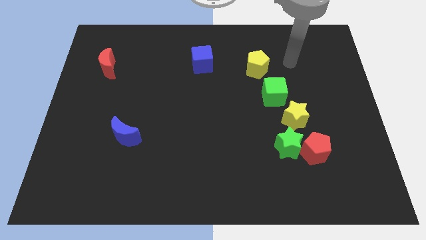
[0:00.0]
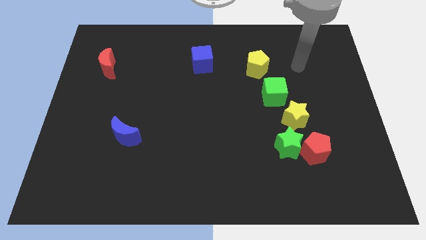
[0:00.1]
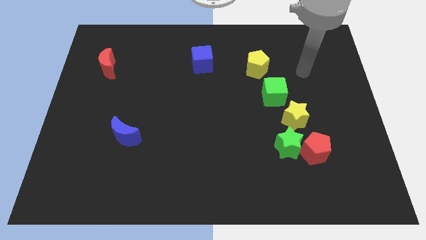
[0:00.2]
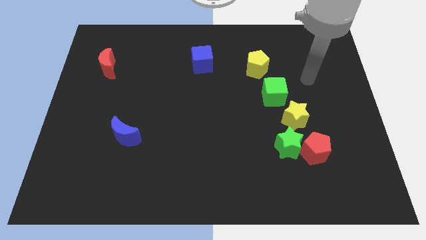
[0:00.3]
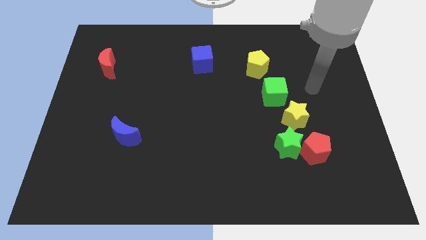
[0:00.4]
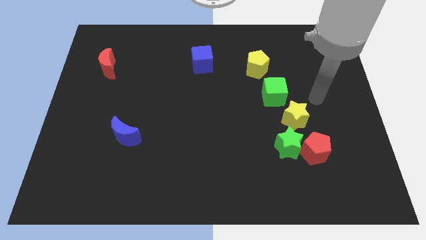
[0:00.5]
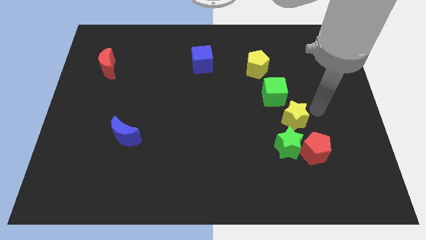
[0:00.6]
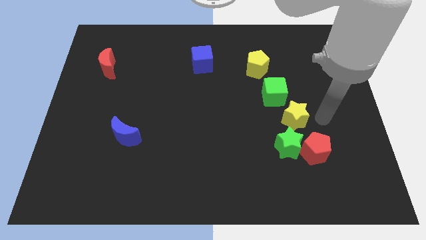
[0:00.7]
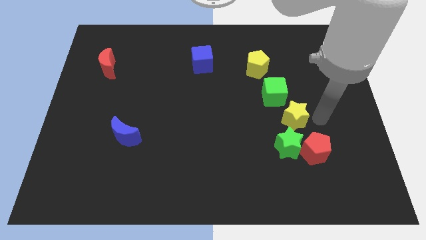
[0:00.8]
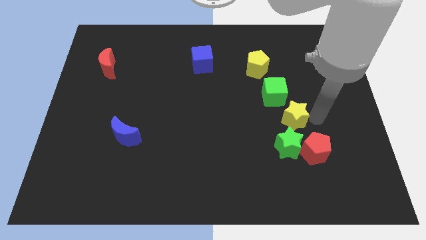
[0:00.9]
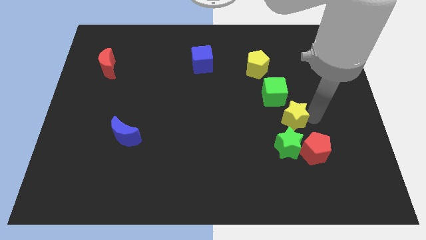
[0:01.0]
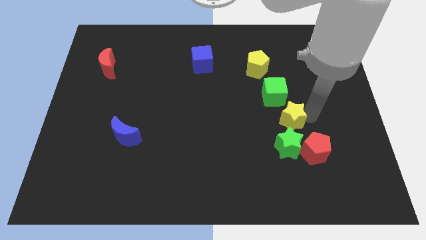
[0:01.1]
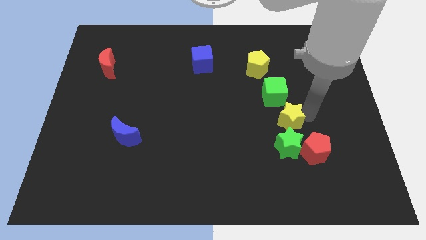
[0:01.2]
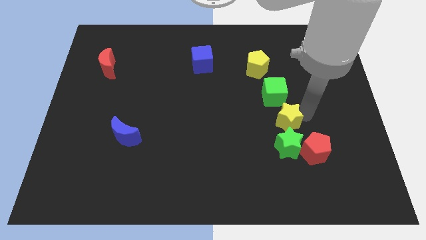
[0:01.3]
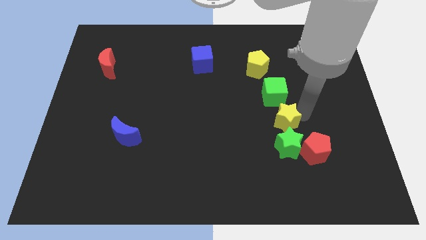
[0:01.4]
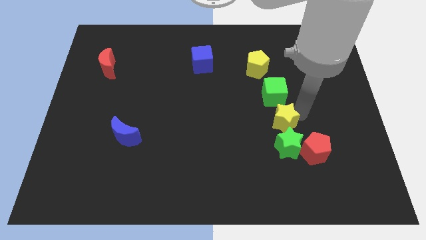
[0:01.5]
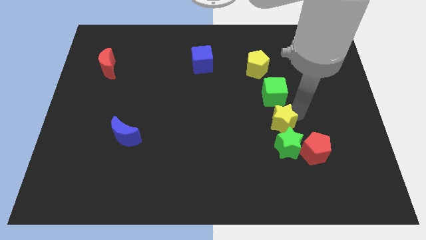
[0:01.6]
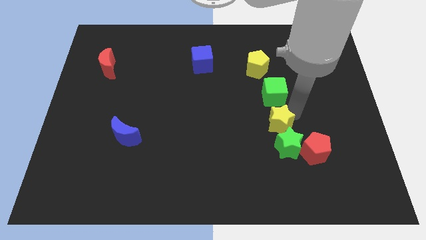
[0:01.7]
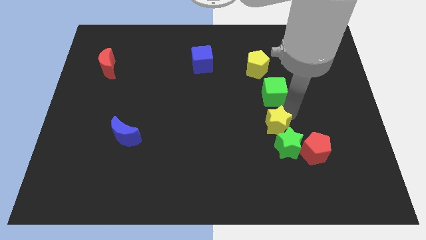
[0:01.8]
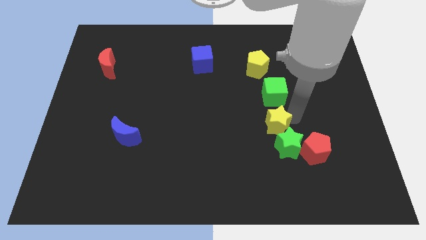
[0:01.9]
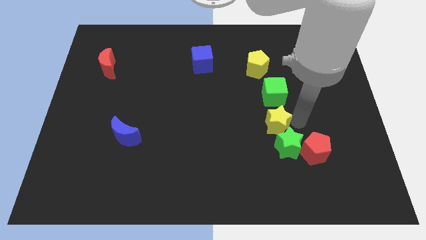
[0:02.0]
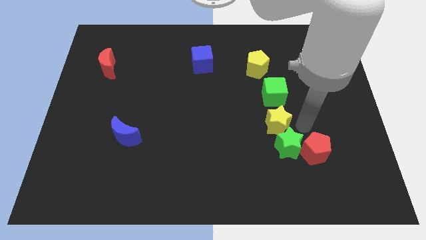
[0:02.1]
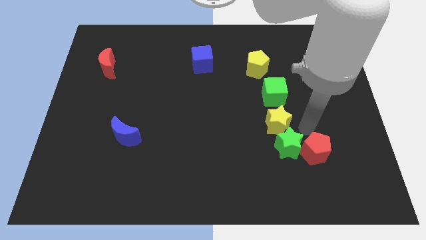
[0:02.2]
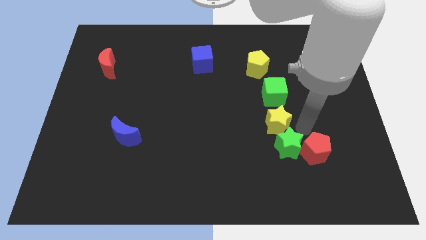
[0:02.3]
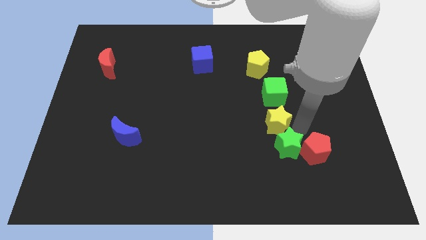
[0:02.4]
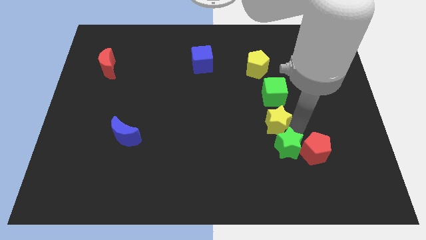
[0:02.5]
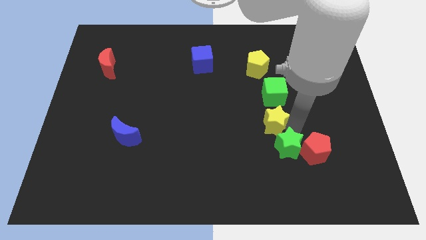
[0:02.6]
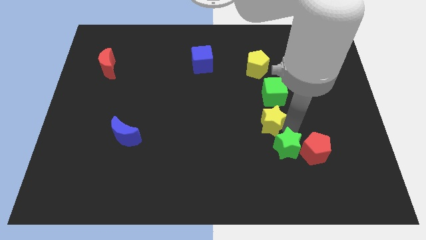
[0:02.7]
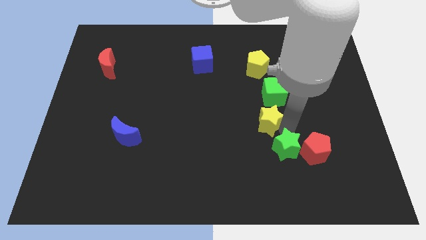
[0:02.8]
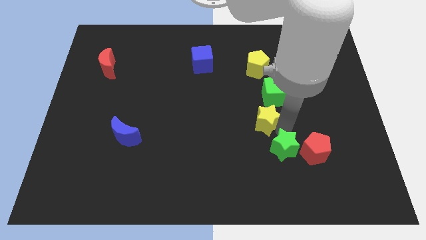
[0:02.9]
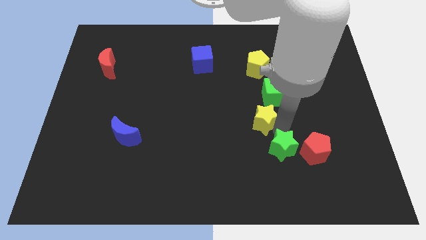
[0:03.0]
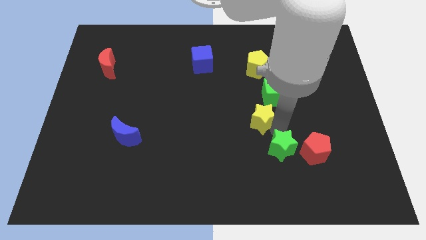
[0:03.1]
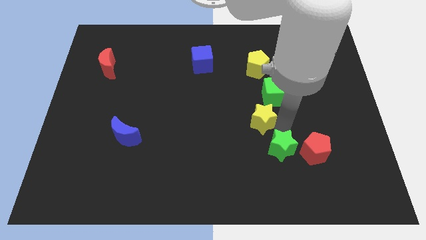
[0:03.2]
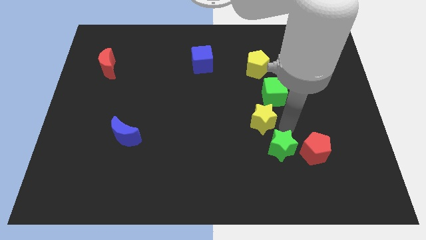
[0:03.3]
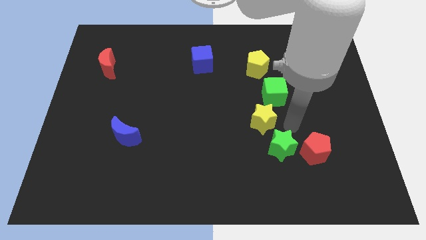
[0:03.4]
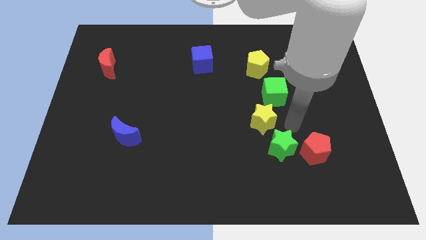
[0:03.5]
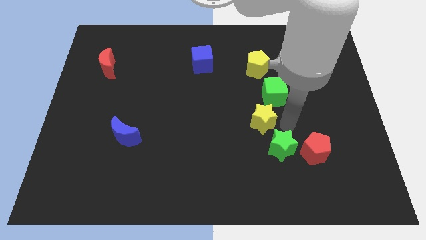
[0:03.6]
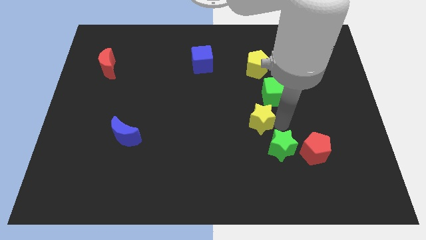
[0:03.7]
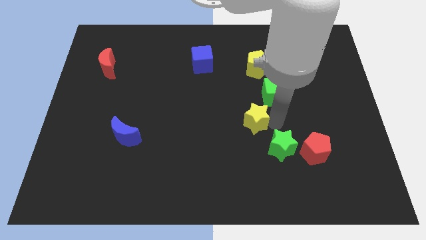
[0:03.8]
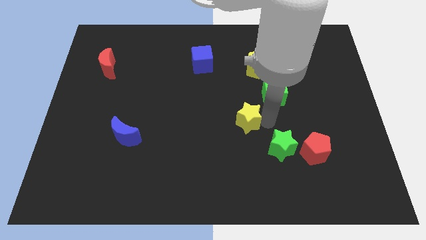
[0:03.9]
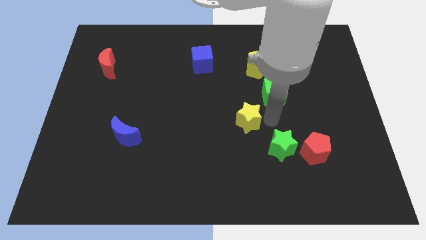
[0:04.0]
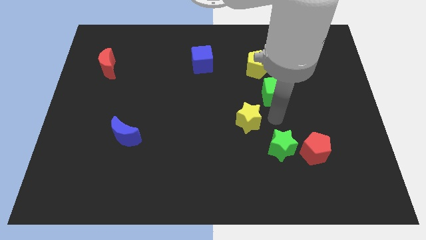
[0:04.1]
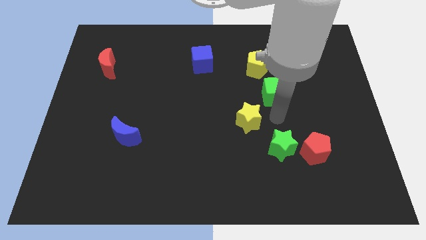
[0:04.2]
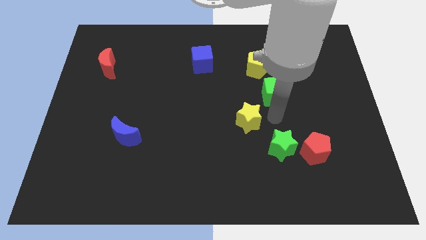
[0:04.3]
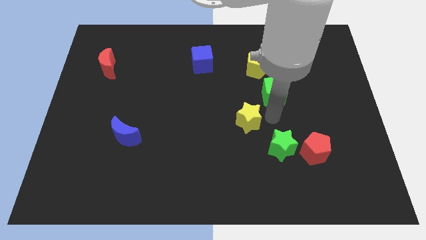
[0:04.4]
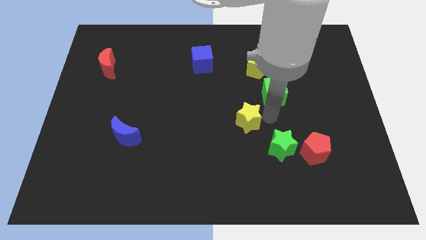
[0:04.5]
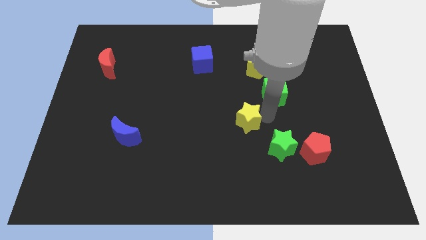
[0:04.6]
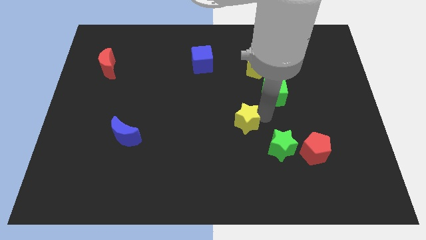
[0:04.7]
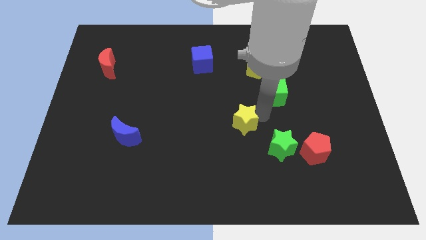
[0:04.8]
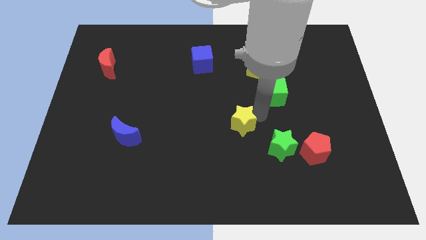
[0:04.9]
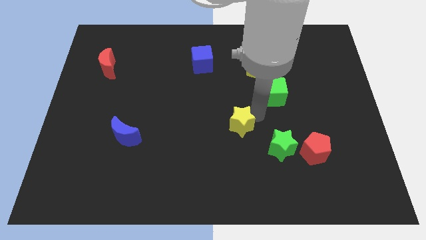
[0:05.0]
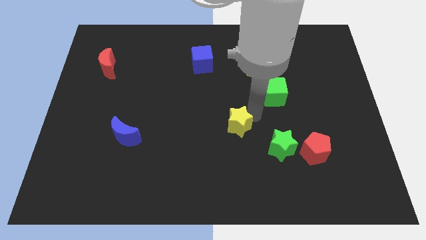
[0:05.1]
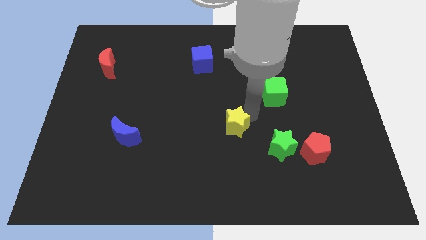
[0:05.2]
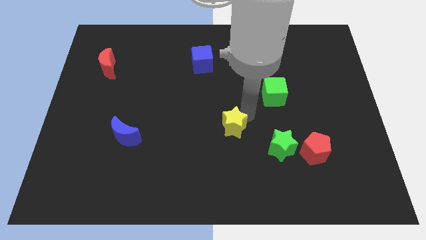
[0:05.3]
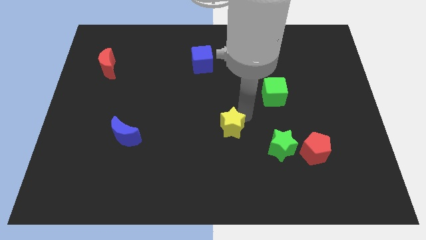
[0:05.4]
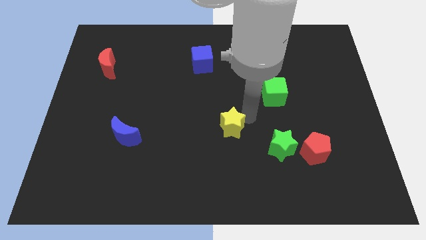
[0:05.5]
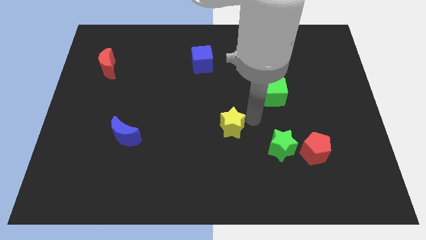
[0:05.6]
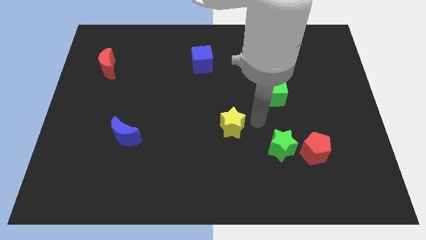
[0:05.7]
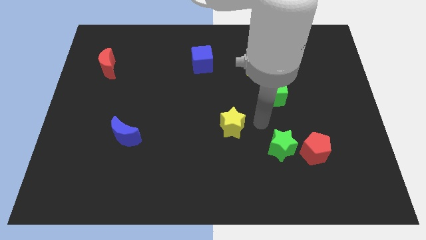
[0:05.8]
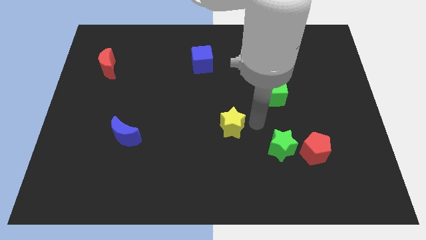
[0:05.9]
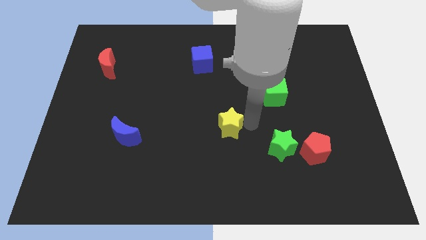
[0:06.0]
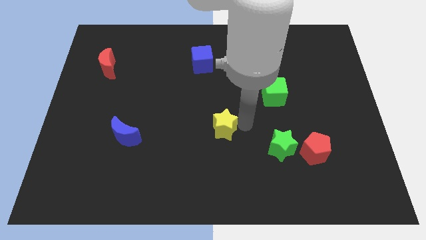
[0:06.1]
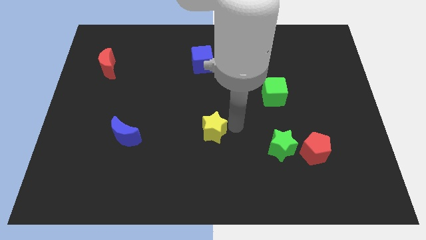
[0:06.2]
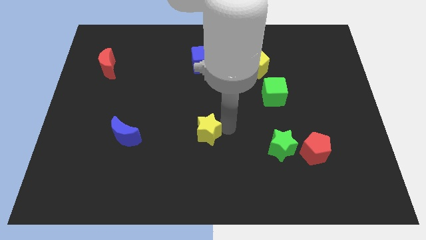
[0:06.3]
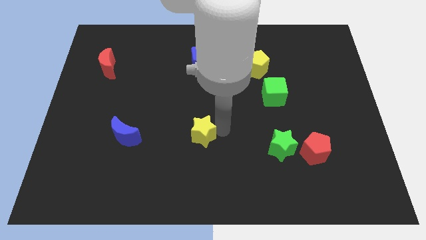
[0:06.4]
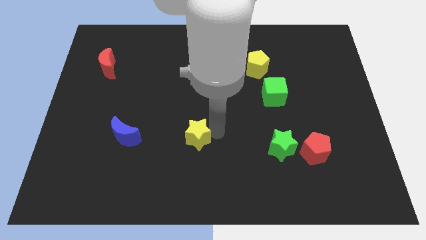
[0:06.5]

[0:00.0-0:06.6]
put the yellow star to the right of the blue moon
